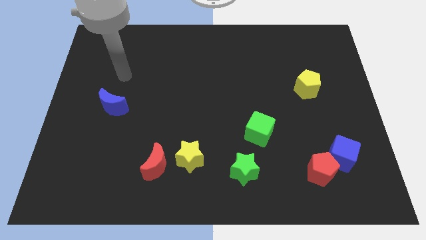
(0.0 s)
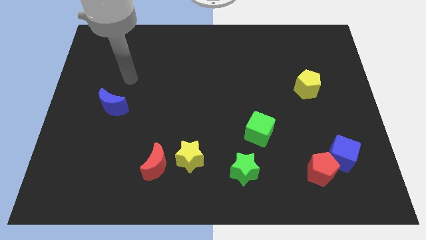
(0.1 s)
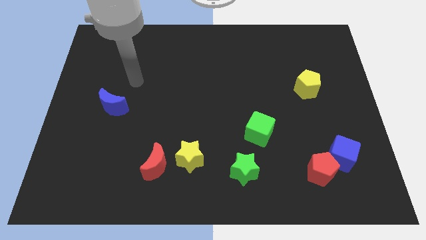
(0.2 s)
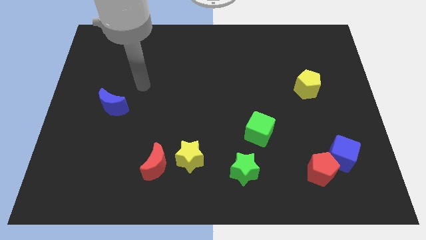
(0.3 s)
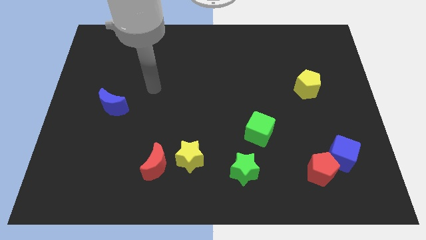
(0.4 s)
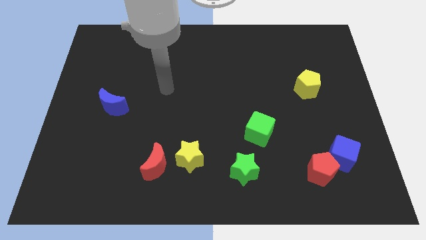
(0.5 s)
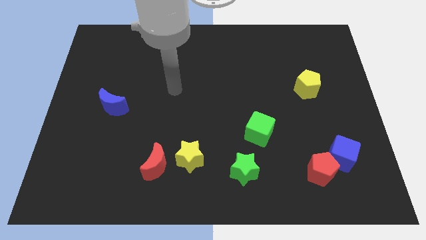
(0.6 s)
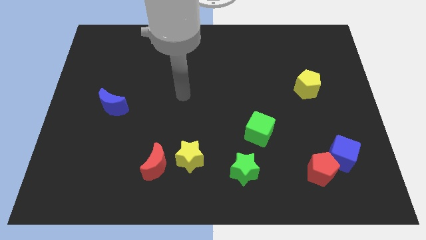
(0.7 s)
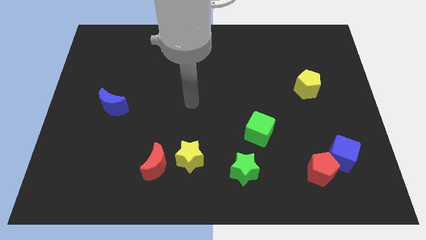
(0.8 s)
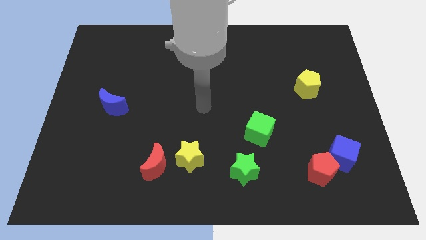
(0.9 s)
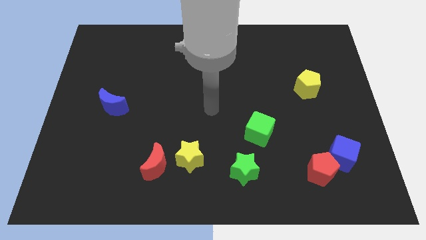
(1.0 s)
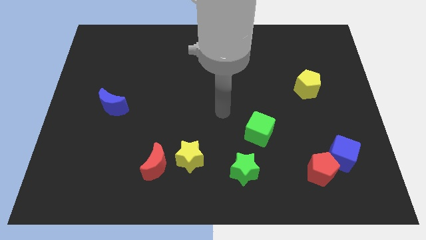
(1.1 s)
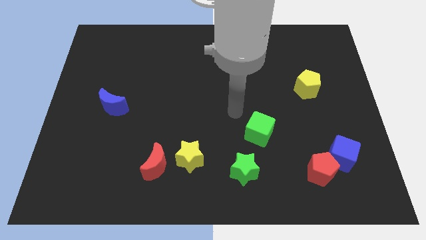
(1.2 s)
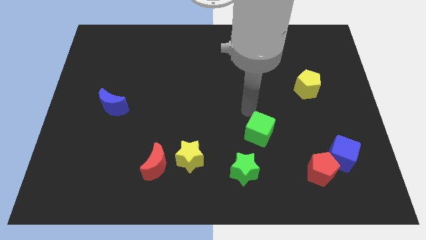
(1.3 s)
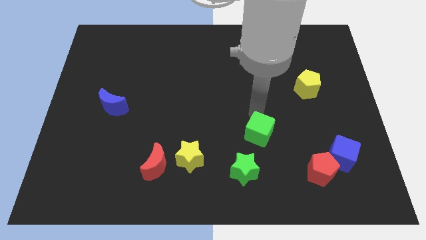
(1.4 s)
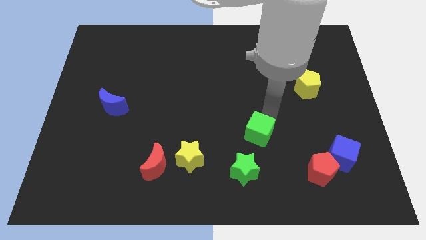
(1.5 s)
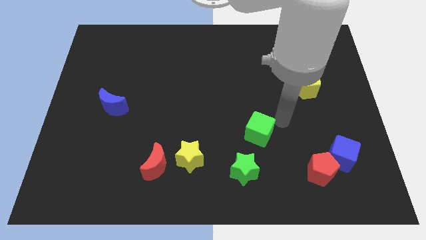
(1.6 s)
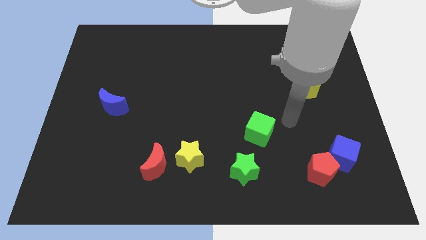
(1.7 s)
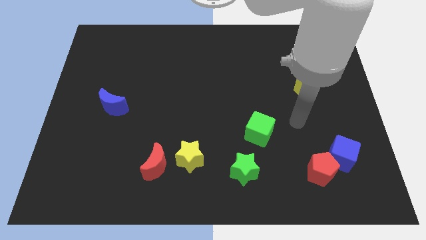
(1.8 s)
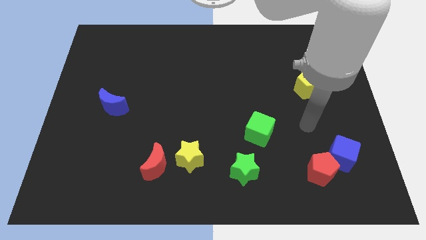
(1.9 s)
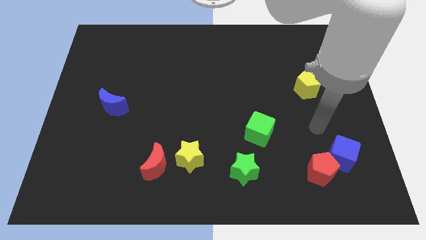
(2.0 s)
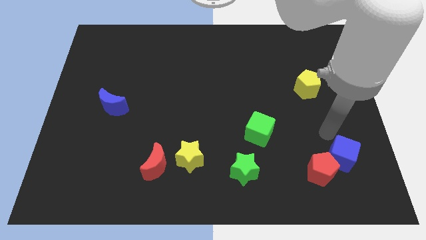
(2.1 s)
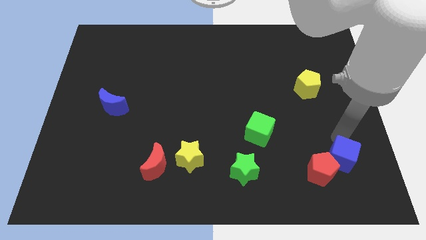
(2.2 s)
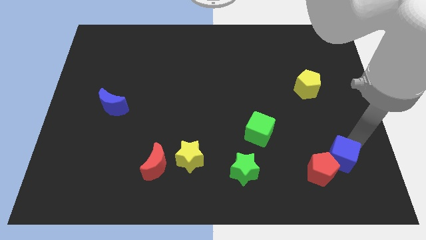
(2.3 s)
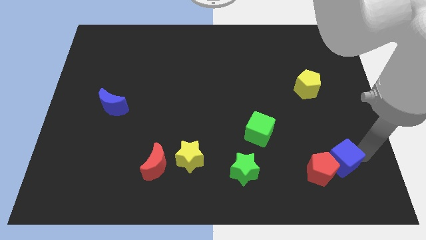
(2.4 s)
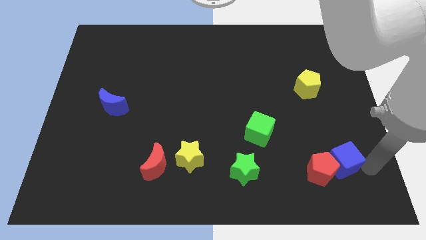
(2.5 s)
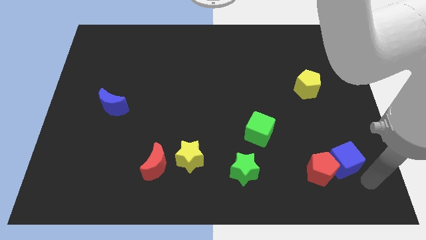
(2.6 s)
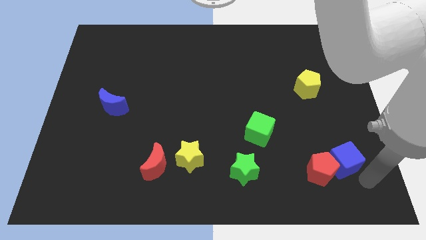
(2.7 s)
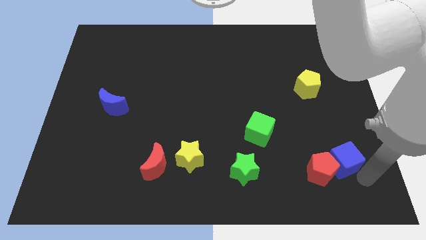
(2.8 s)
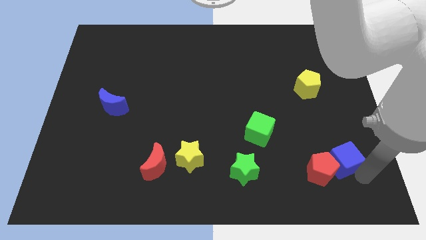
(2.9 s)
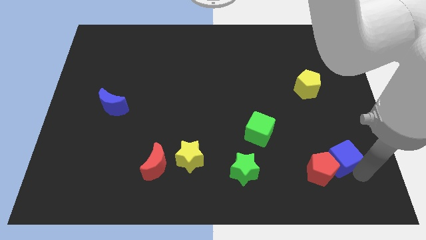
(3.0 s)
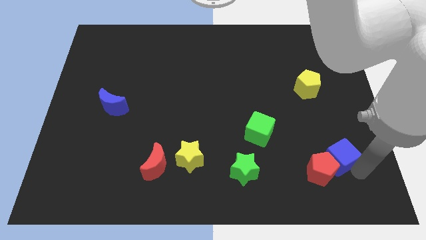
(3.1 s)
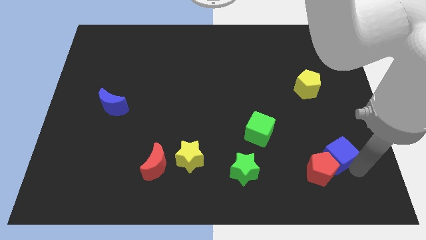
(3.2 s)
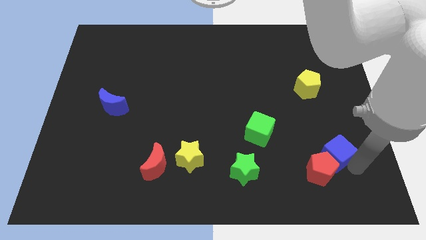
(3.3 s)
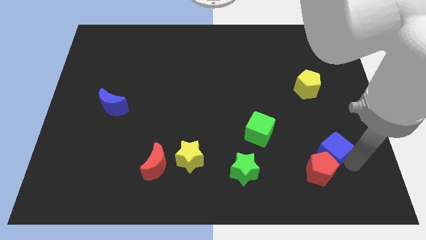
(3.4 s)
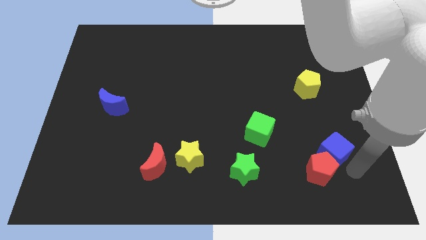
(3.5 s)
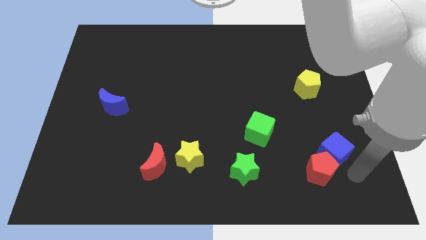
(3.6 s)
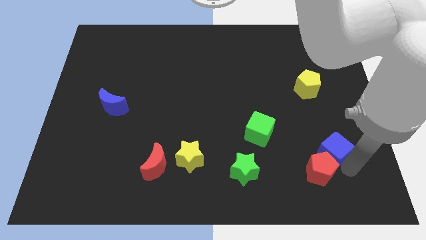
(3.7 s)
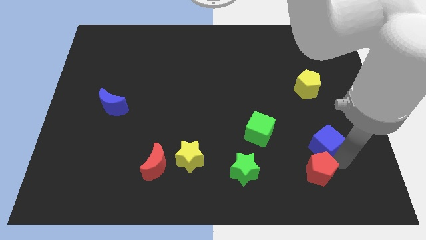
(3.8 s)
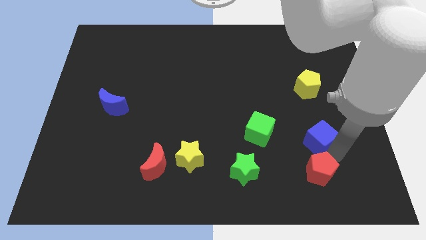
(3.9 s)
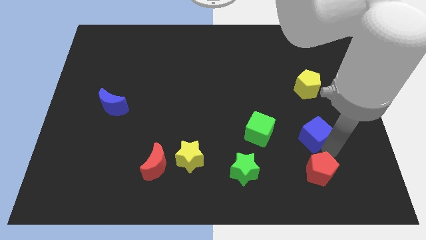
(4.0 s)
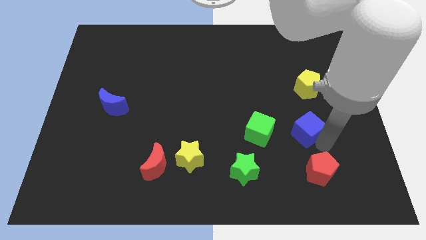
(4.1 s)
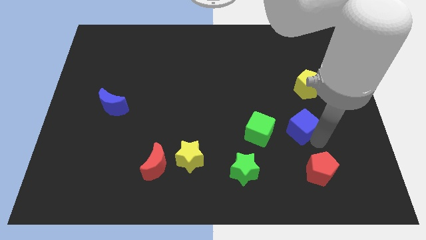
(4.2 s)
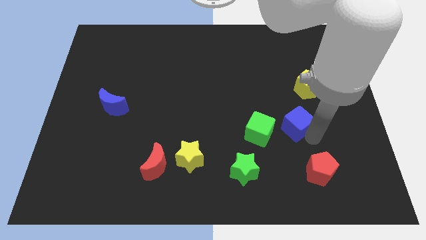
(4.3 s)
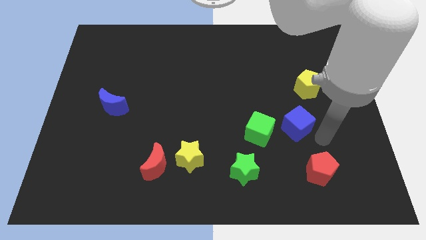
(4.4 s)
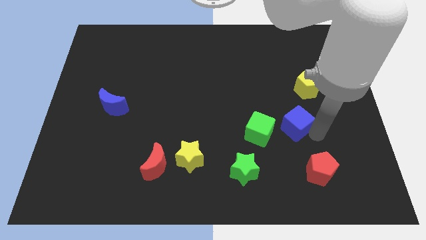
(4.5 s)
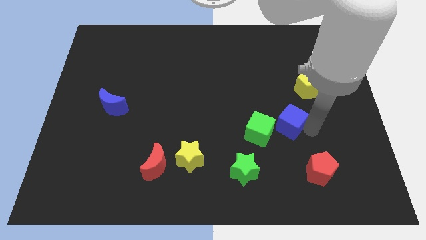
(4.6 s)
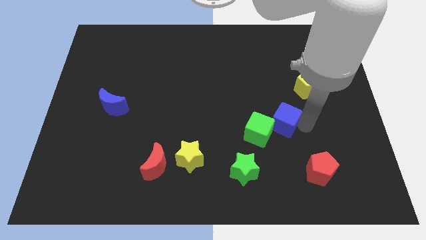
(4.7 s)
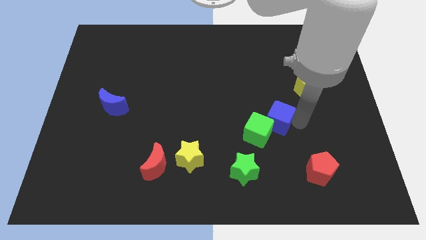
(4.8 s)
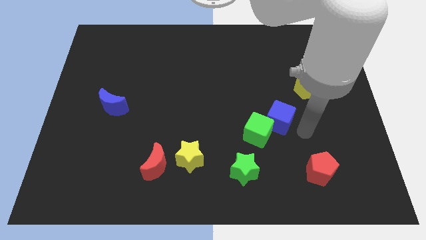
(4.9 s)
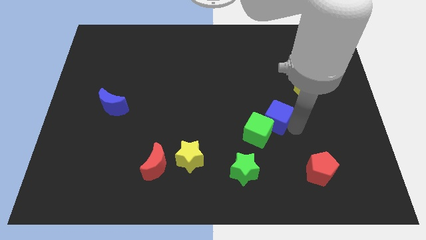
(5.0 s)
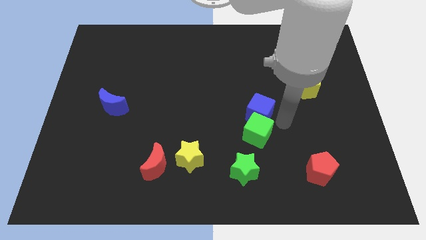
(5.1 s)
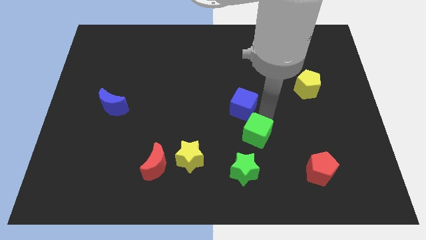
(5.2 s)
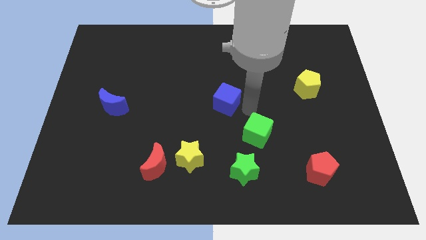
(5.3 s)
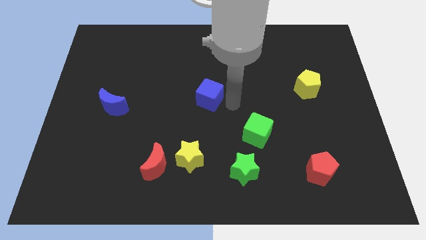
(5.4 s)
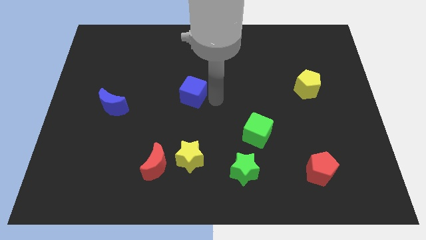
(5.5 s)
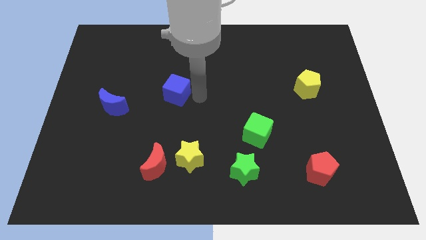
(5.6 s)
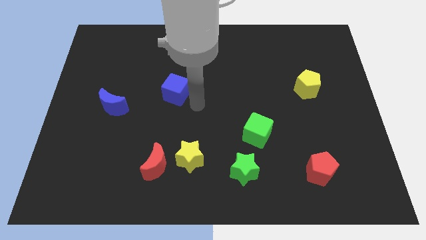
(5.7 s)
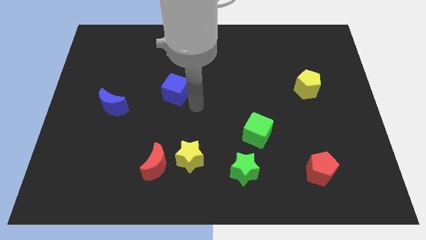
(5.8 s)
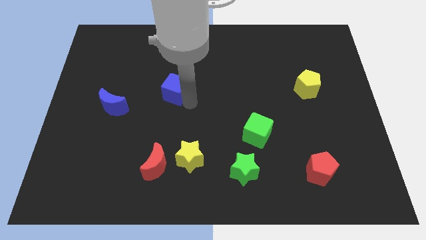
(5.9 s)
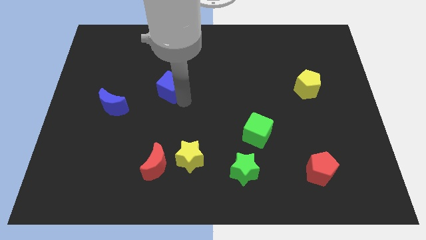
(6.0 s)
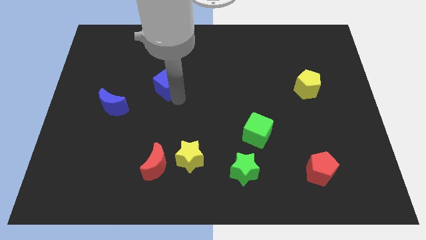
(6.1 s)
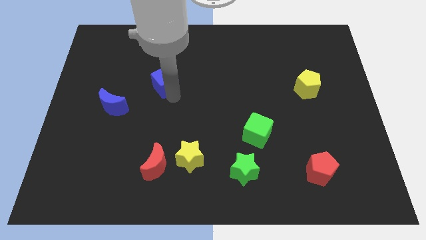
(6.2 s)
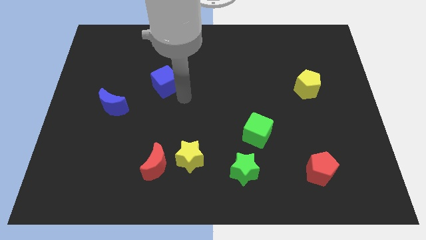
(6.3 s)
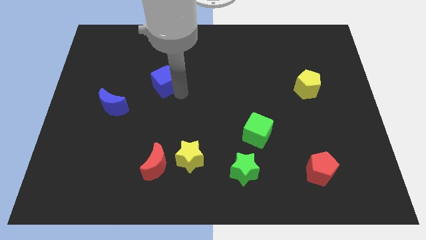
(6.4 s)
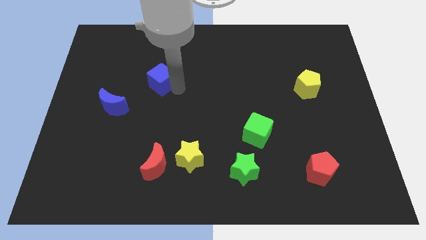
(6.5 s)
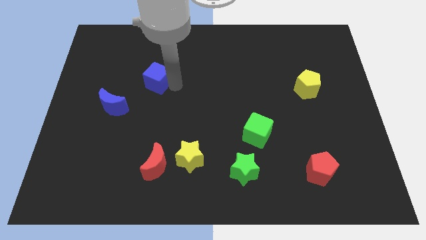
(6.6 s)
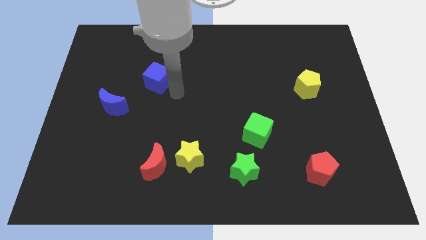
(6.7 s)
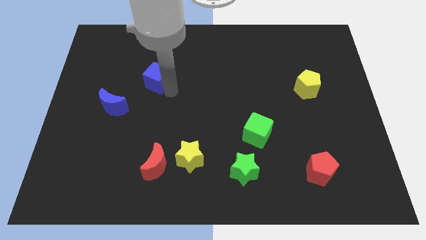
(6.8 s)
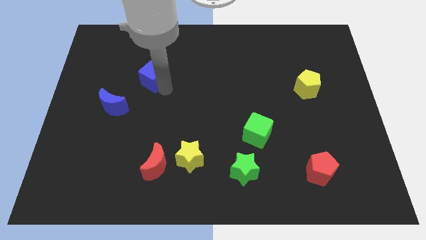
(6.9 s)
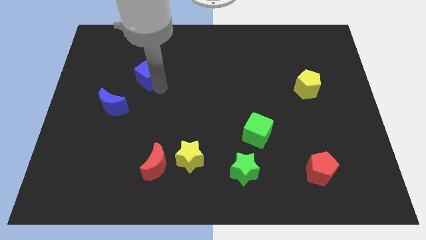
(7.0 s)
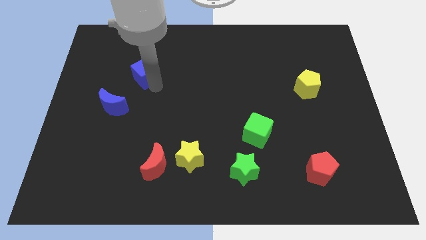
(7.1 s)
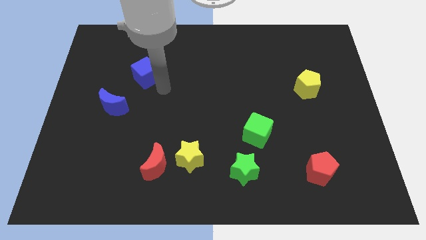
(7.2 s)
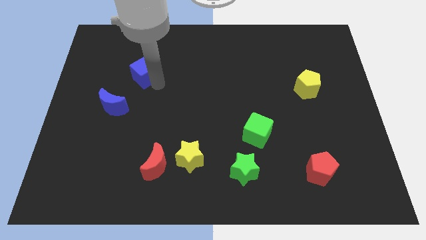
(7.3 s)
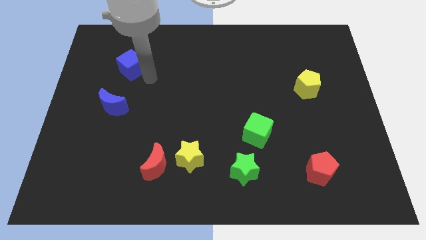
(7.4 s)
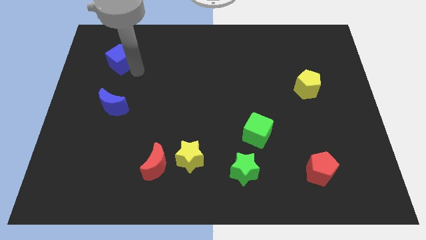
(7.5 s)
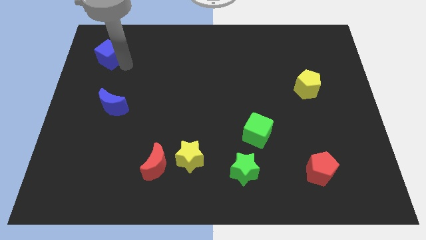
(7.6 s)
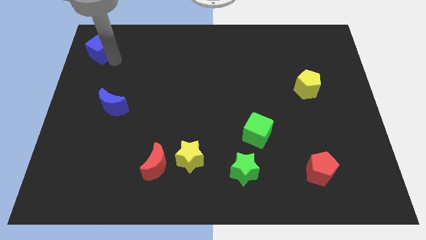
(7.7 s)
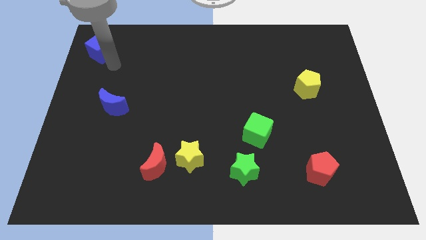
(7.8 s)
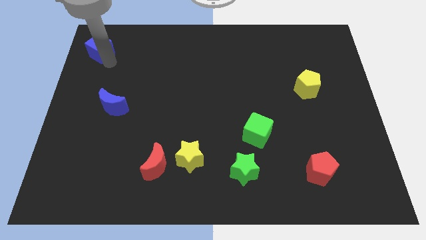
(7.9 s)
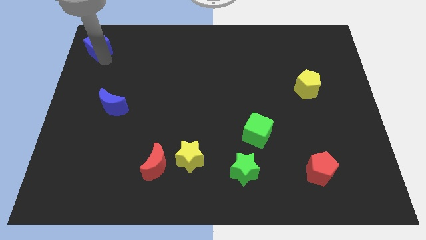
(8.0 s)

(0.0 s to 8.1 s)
push the blue cube to the top left corner
